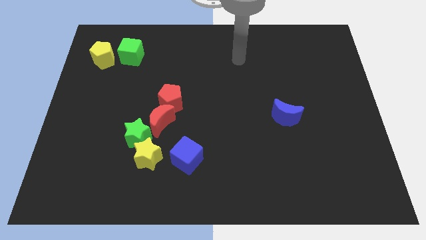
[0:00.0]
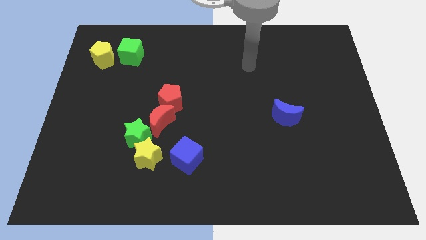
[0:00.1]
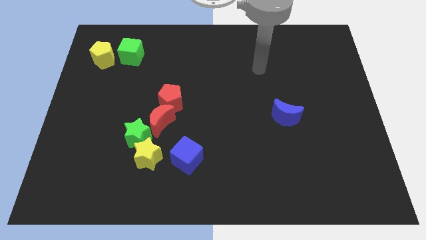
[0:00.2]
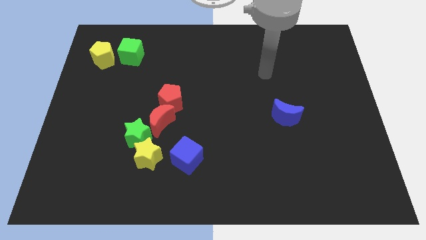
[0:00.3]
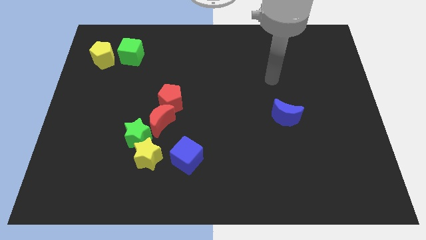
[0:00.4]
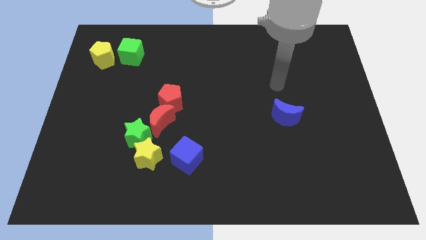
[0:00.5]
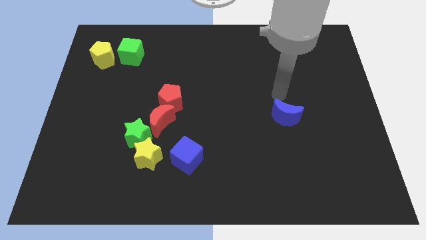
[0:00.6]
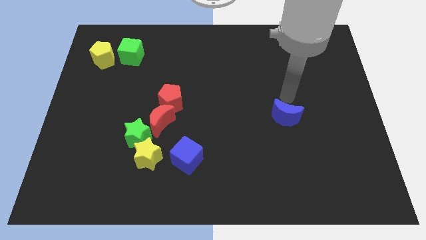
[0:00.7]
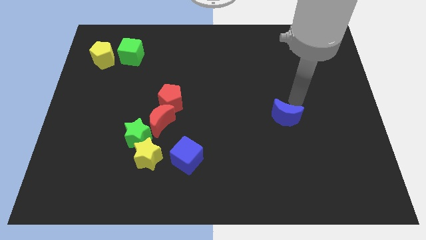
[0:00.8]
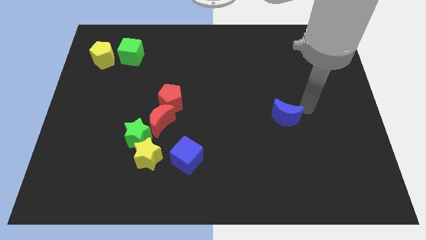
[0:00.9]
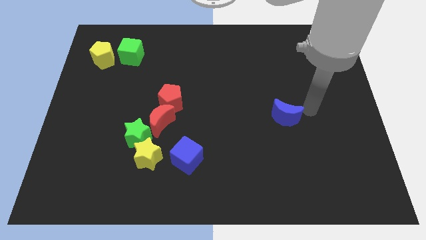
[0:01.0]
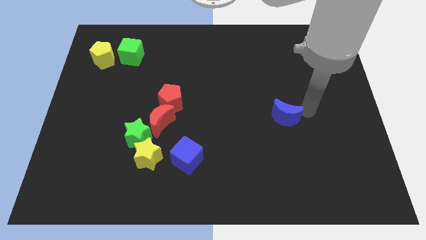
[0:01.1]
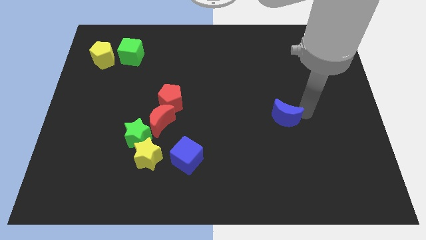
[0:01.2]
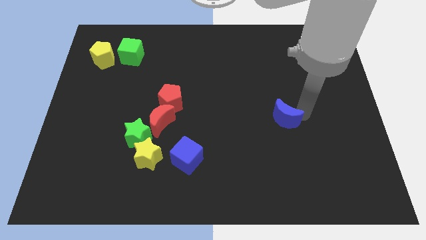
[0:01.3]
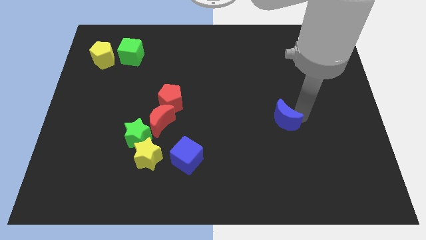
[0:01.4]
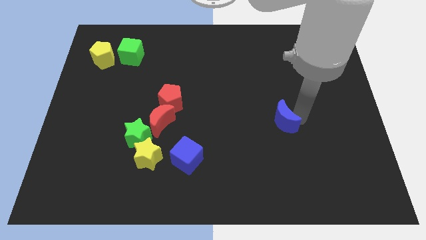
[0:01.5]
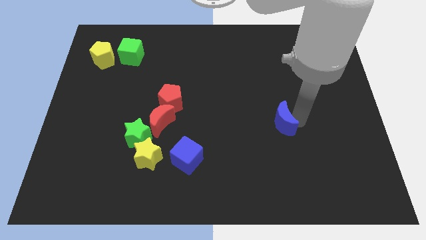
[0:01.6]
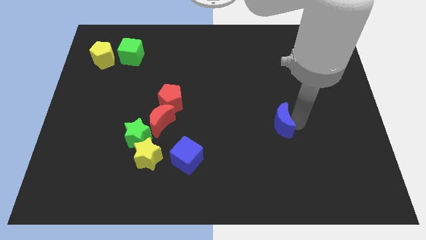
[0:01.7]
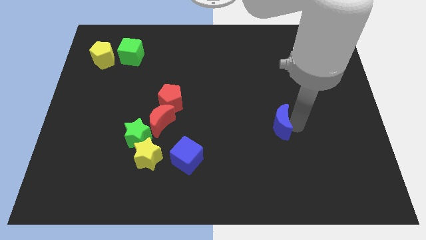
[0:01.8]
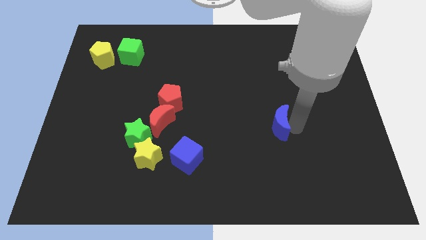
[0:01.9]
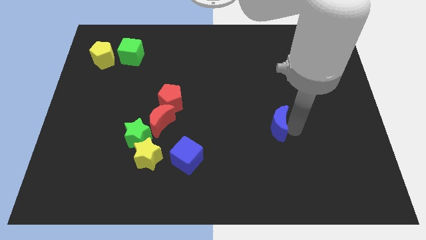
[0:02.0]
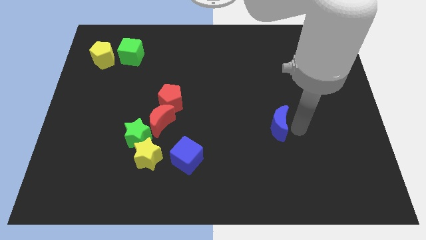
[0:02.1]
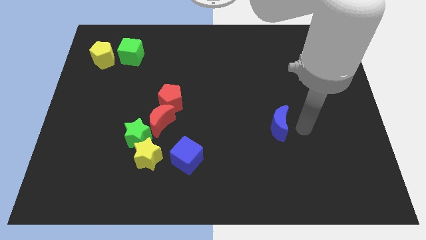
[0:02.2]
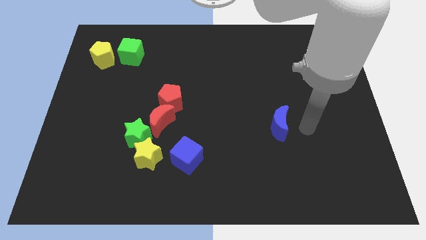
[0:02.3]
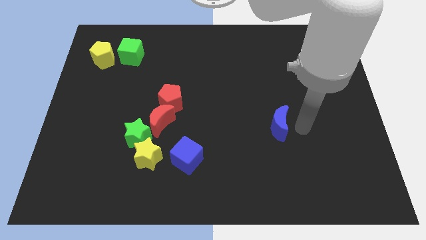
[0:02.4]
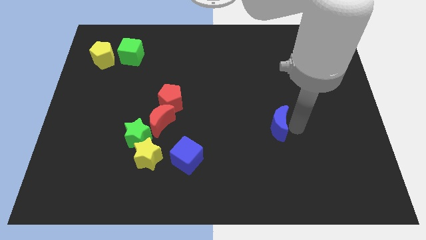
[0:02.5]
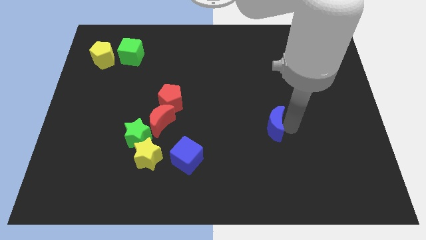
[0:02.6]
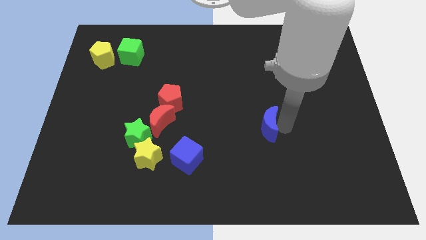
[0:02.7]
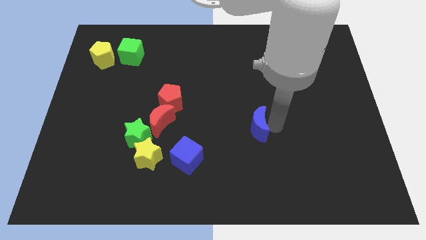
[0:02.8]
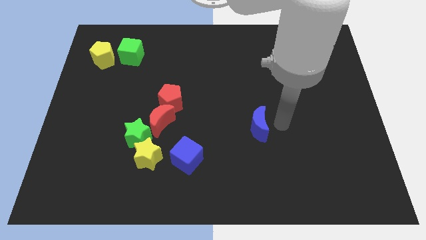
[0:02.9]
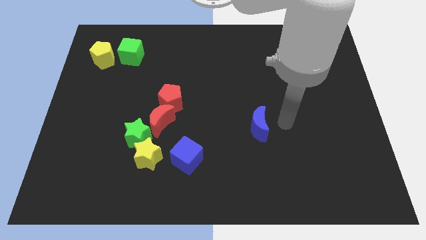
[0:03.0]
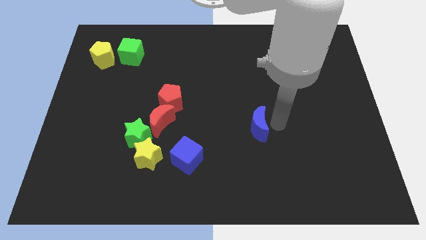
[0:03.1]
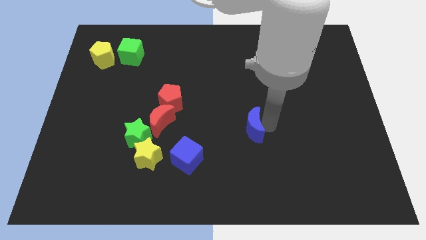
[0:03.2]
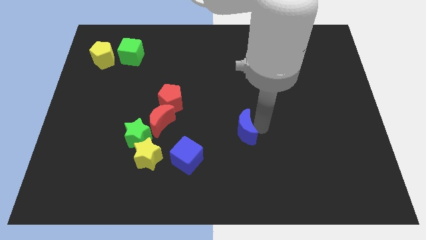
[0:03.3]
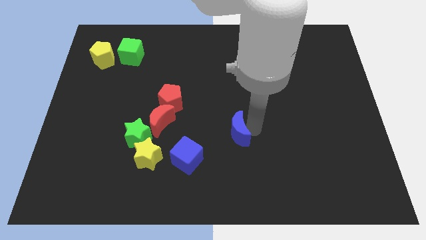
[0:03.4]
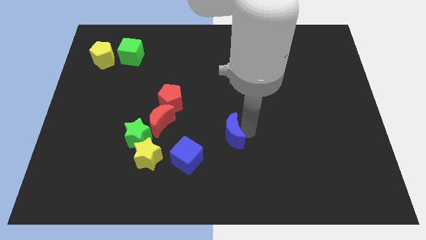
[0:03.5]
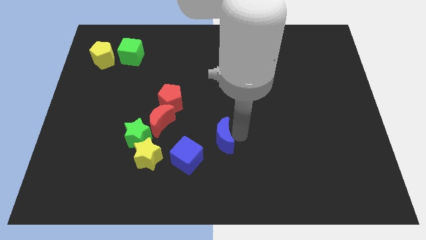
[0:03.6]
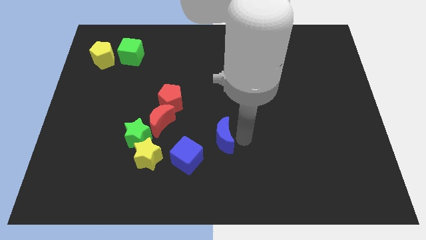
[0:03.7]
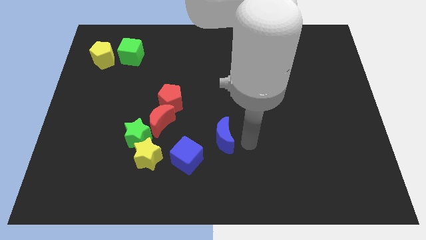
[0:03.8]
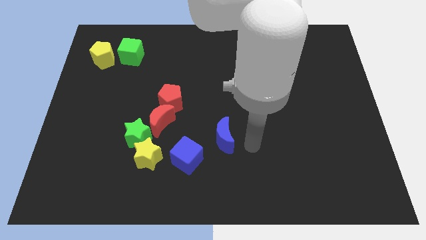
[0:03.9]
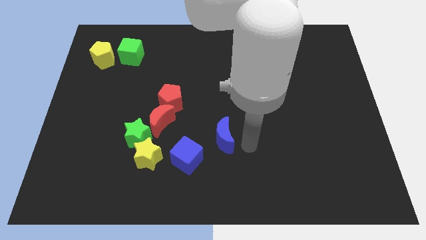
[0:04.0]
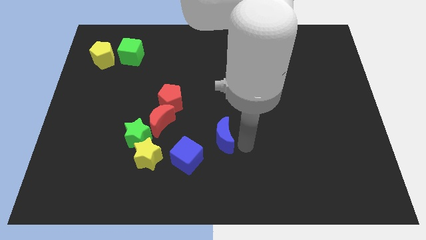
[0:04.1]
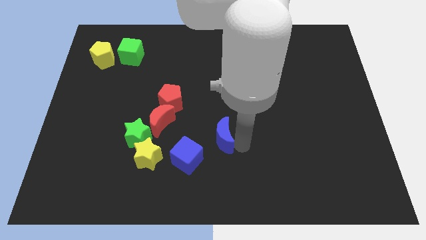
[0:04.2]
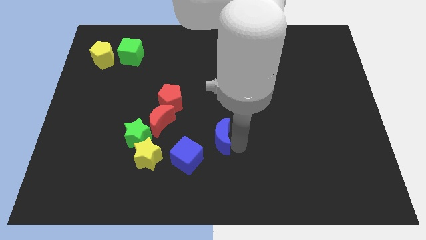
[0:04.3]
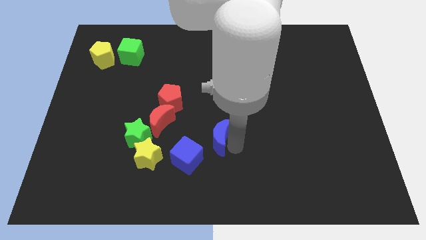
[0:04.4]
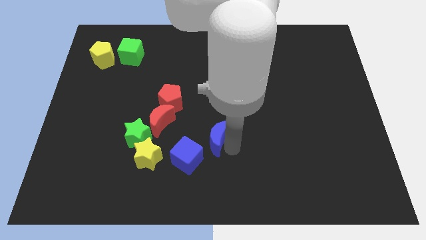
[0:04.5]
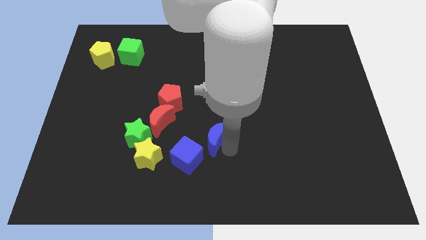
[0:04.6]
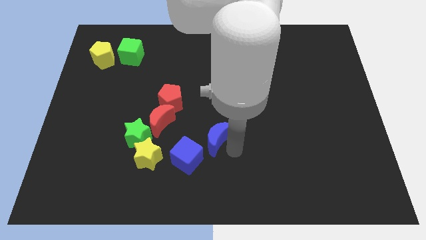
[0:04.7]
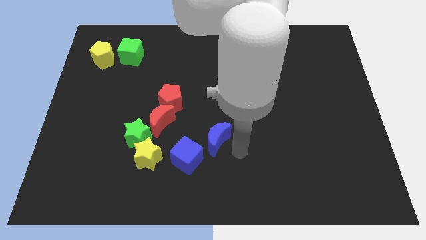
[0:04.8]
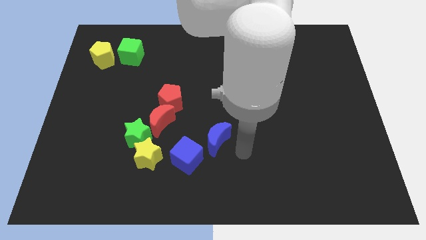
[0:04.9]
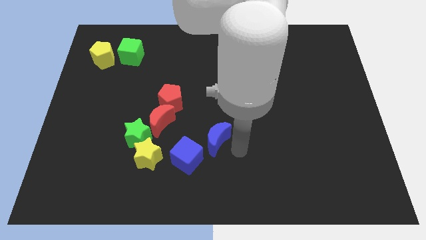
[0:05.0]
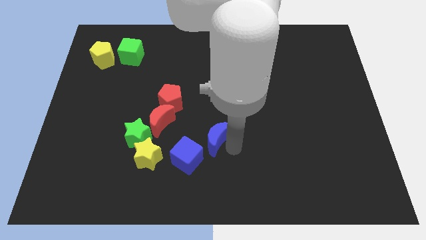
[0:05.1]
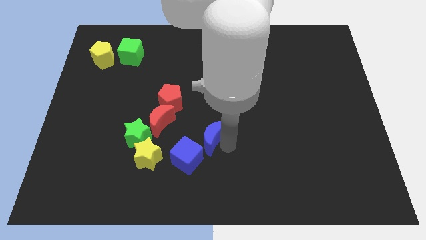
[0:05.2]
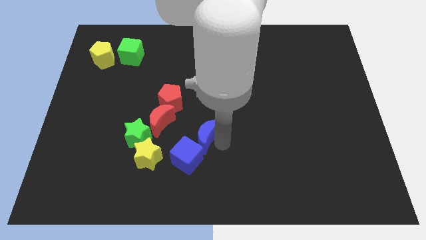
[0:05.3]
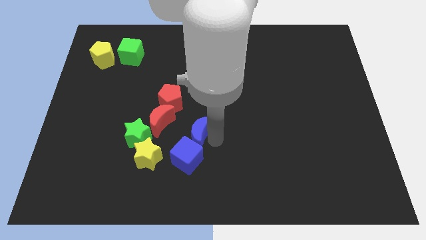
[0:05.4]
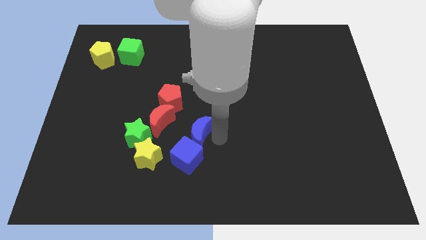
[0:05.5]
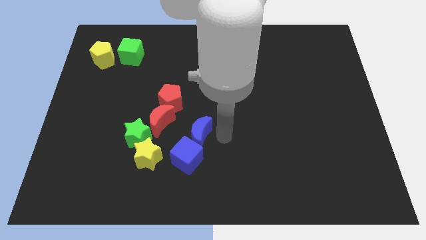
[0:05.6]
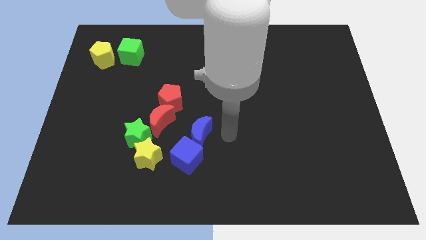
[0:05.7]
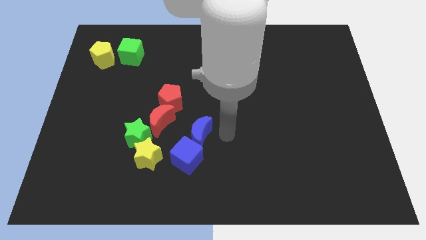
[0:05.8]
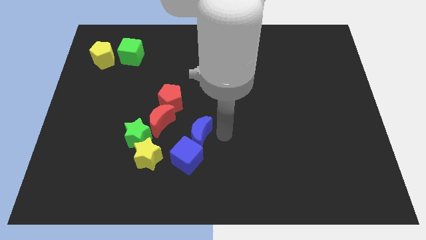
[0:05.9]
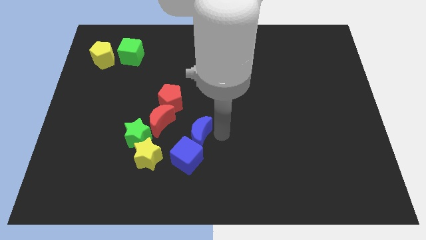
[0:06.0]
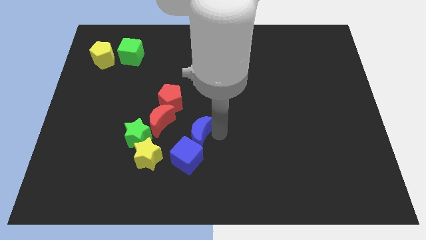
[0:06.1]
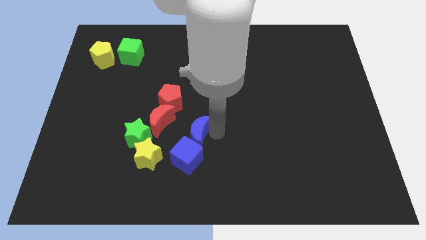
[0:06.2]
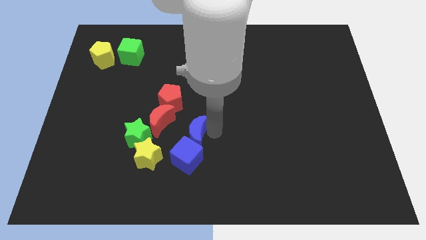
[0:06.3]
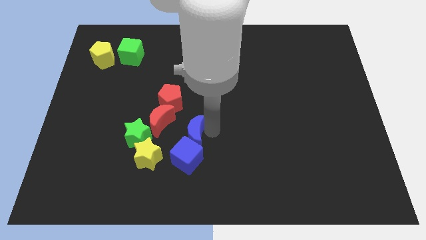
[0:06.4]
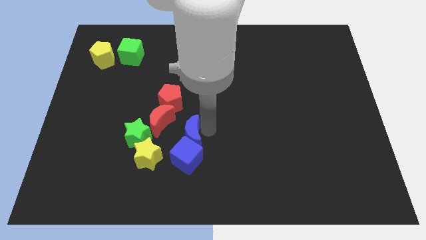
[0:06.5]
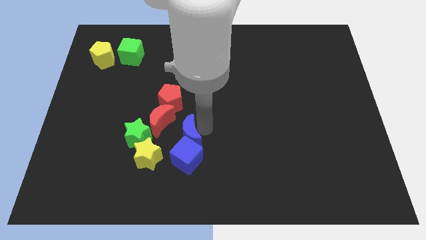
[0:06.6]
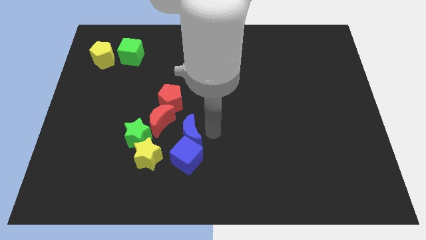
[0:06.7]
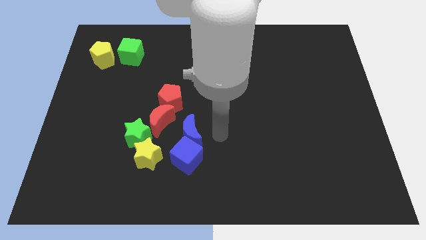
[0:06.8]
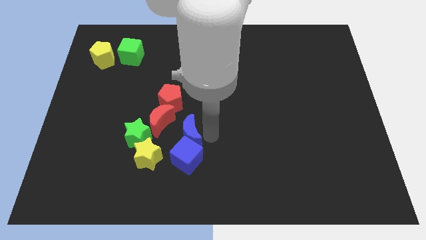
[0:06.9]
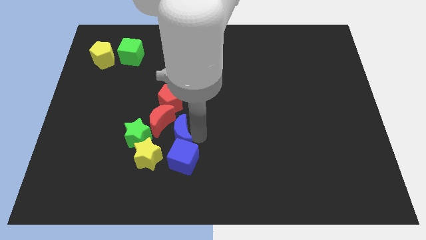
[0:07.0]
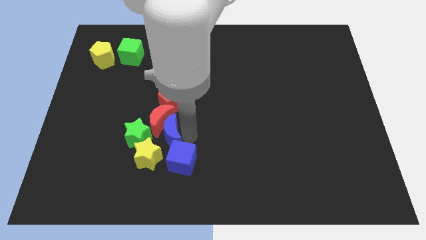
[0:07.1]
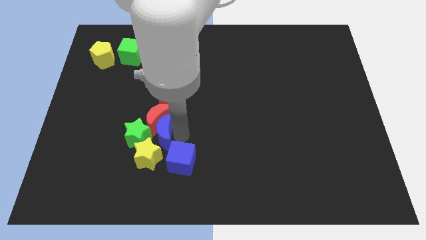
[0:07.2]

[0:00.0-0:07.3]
move the blue moon close to the green star

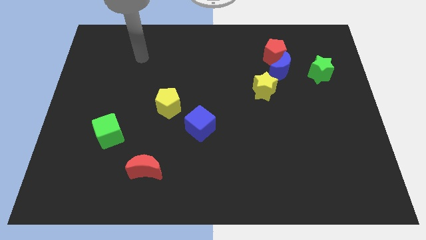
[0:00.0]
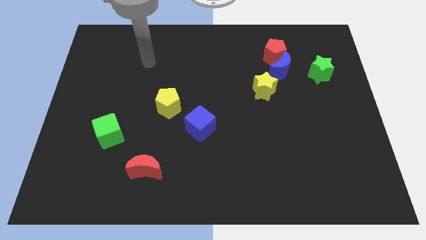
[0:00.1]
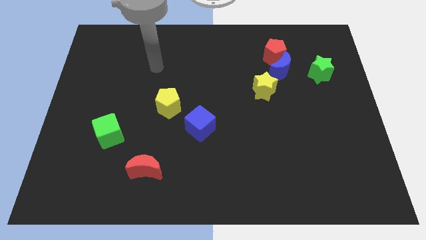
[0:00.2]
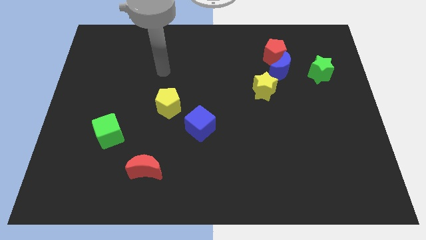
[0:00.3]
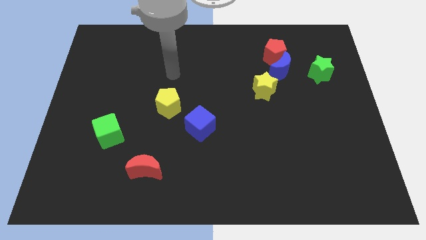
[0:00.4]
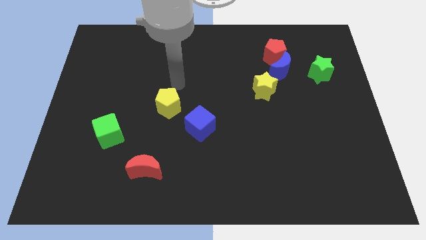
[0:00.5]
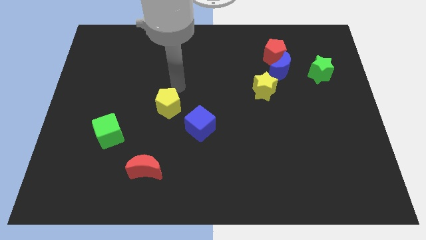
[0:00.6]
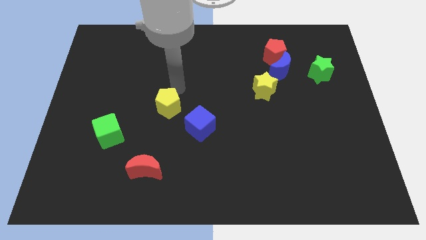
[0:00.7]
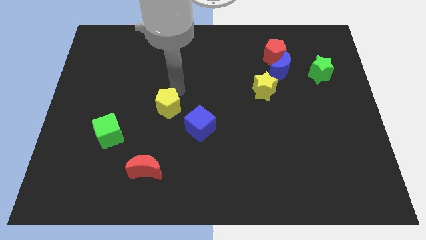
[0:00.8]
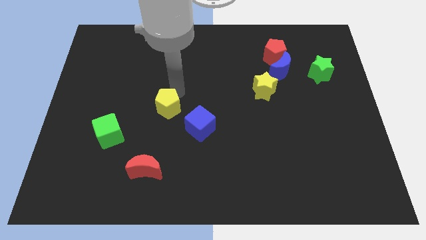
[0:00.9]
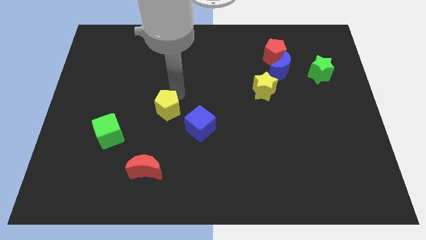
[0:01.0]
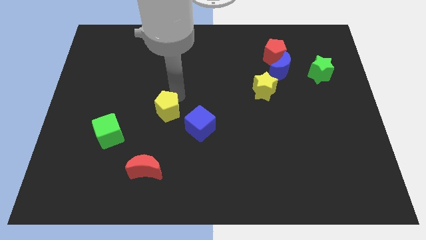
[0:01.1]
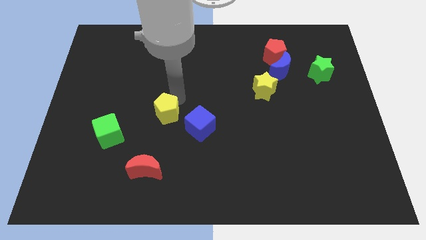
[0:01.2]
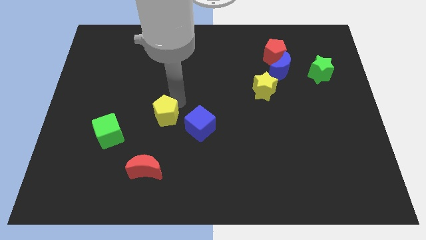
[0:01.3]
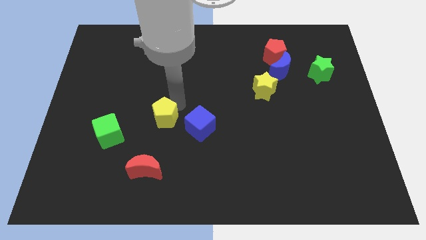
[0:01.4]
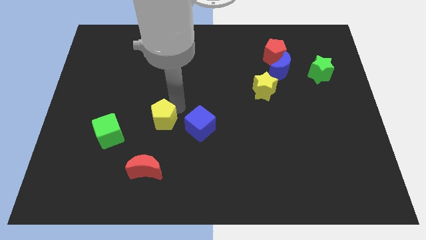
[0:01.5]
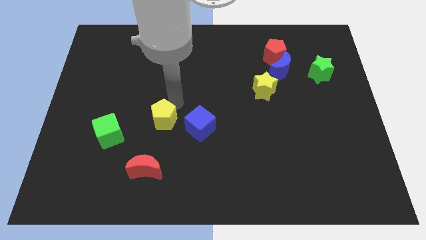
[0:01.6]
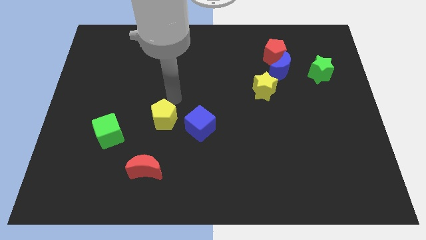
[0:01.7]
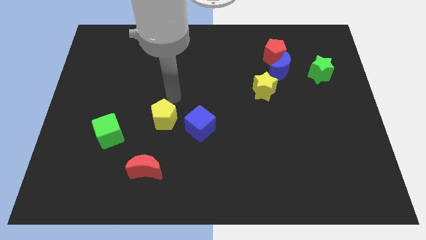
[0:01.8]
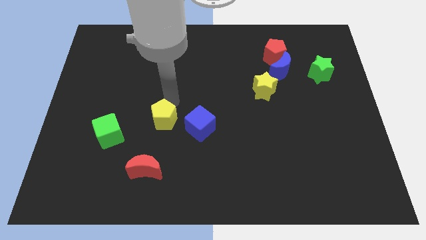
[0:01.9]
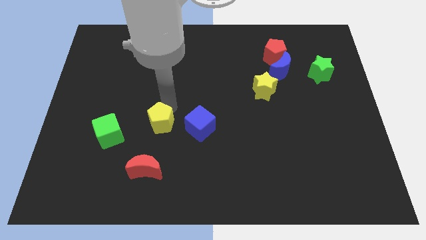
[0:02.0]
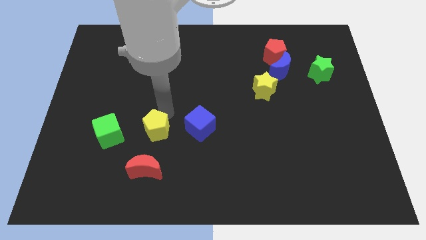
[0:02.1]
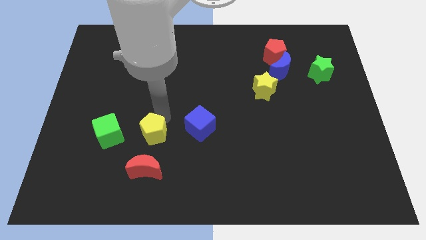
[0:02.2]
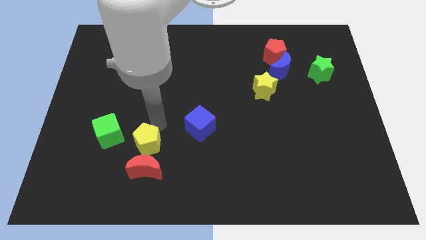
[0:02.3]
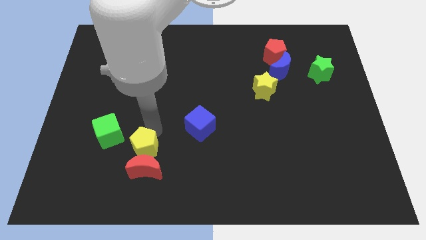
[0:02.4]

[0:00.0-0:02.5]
put the yellow pentagon close to the red moon
